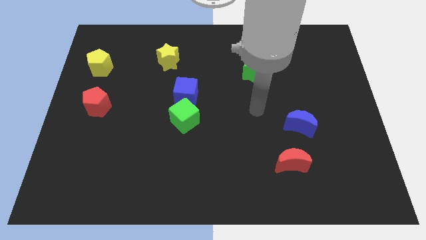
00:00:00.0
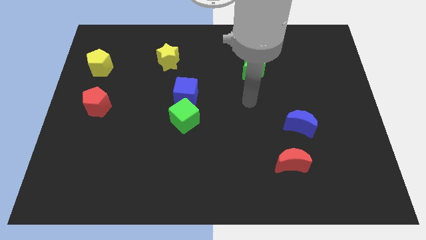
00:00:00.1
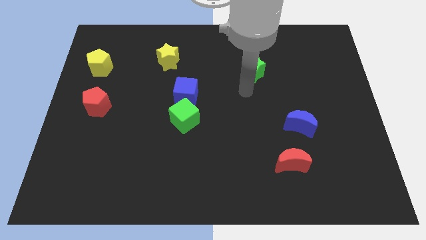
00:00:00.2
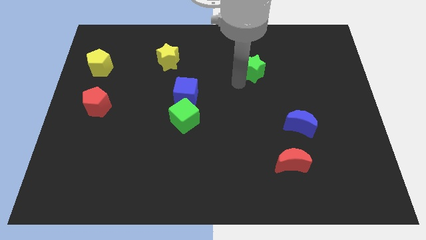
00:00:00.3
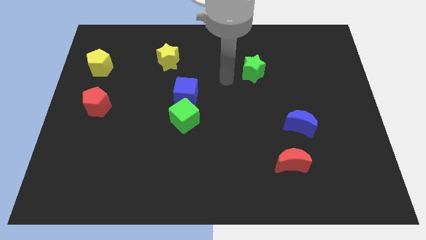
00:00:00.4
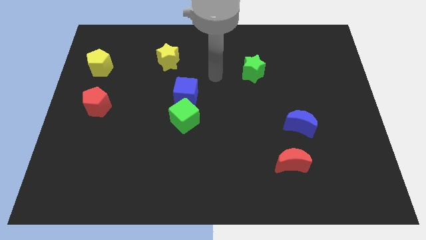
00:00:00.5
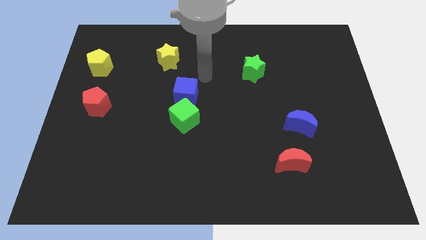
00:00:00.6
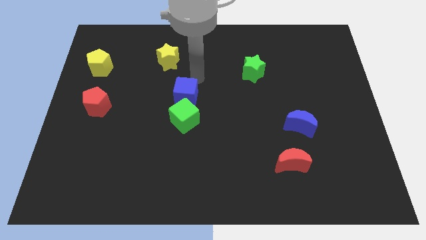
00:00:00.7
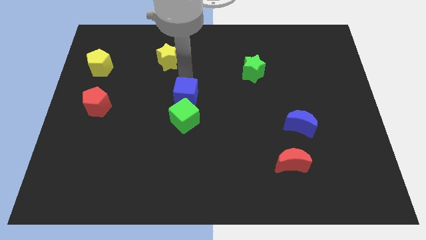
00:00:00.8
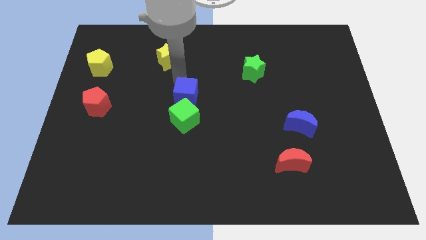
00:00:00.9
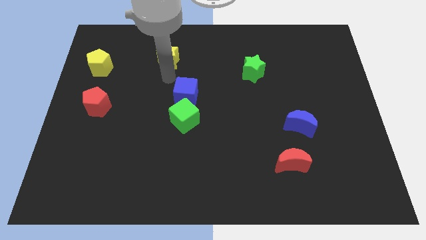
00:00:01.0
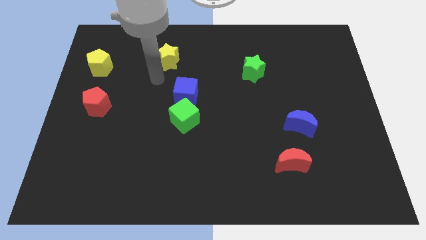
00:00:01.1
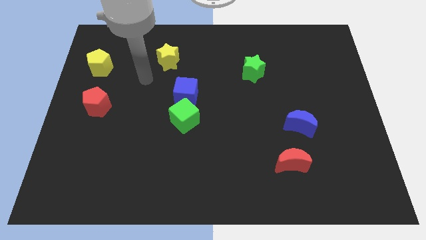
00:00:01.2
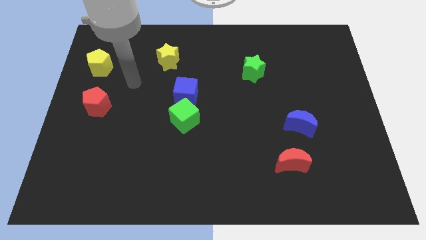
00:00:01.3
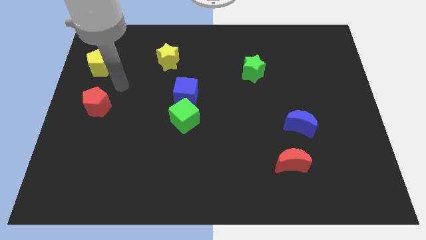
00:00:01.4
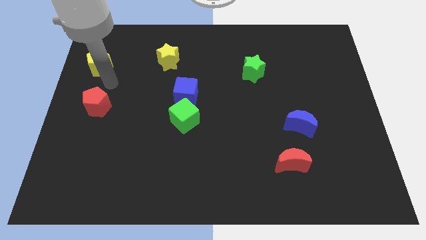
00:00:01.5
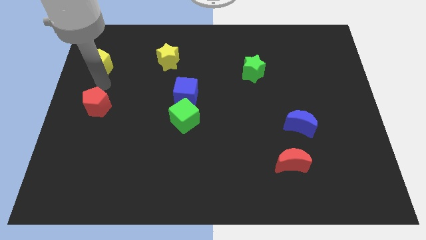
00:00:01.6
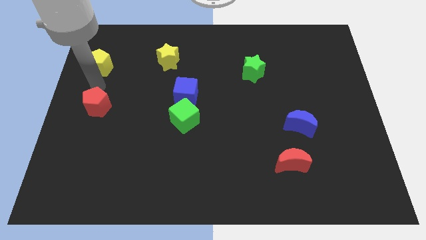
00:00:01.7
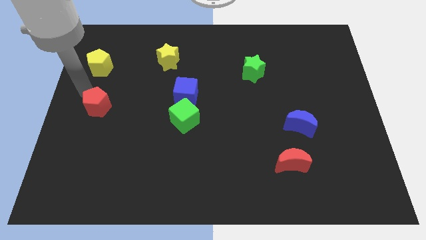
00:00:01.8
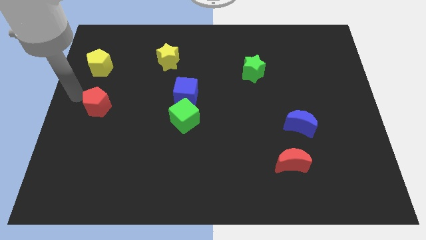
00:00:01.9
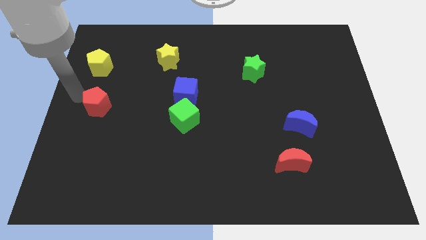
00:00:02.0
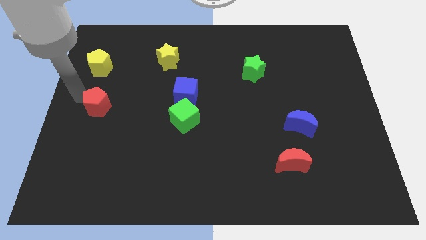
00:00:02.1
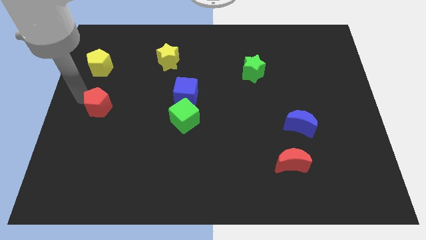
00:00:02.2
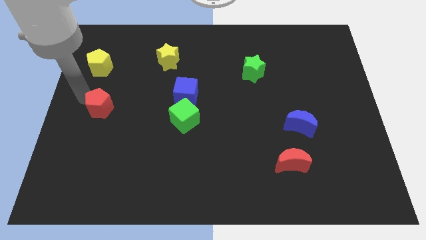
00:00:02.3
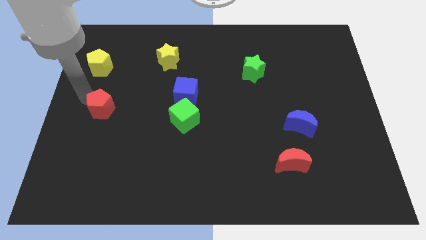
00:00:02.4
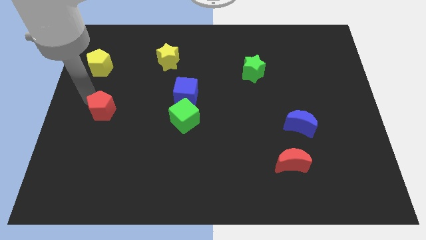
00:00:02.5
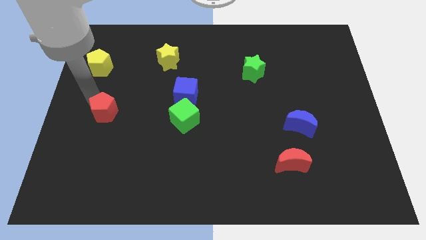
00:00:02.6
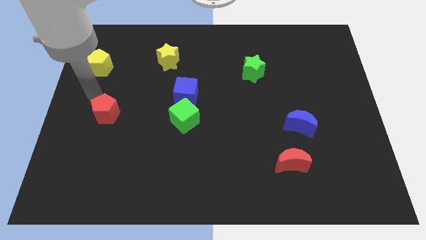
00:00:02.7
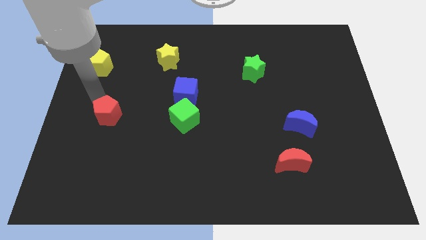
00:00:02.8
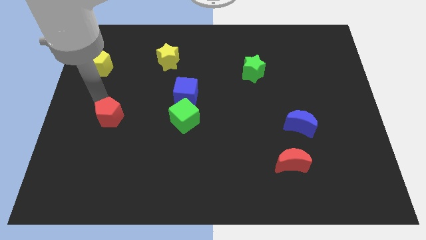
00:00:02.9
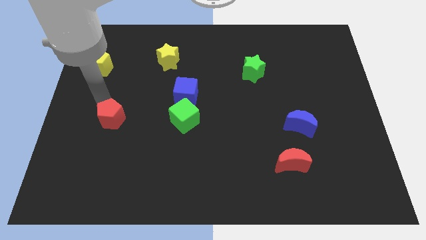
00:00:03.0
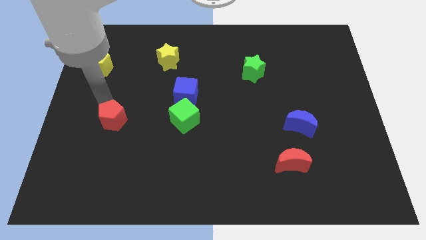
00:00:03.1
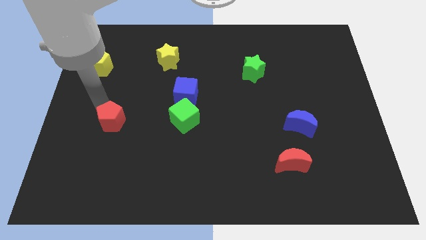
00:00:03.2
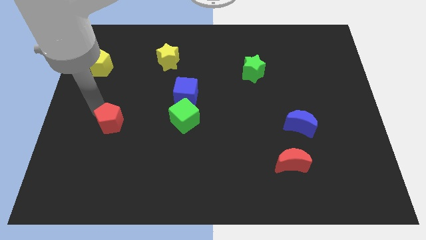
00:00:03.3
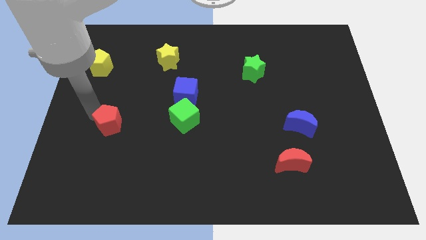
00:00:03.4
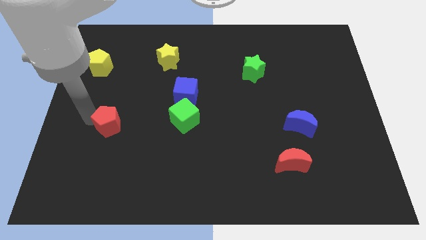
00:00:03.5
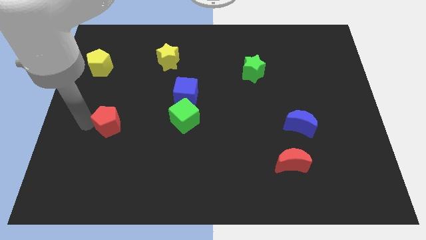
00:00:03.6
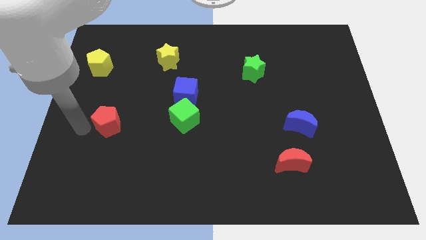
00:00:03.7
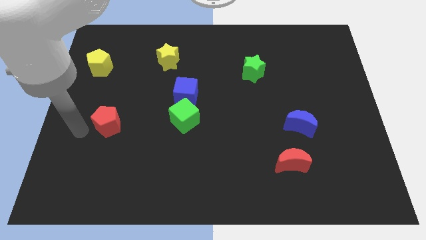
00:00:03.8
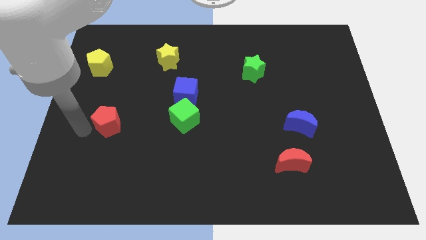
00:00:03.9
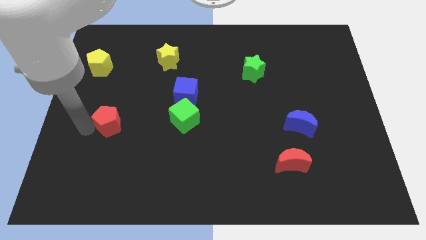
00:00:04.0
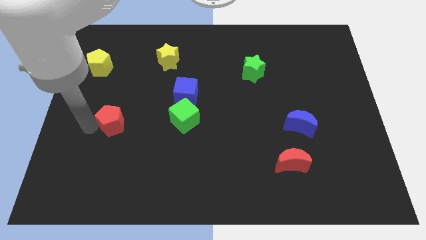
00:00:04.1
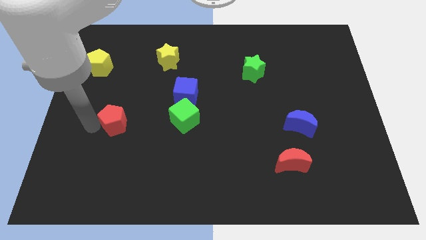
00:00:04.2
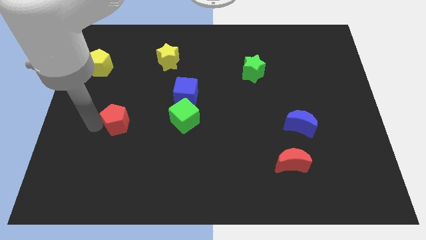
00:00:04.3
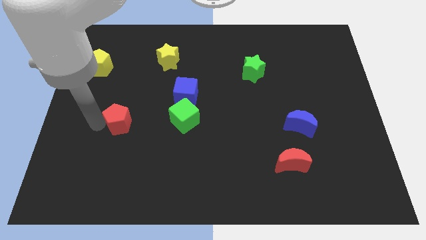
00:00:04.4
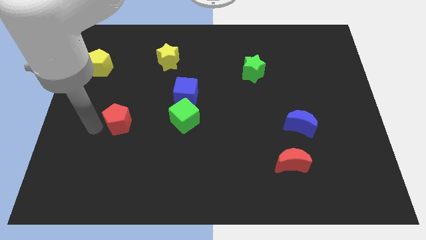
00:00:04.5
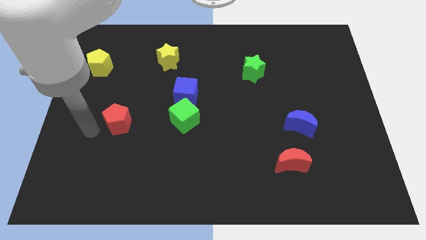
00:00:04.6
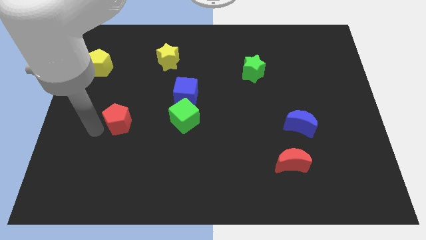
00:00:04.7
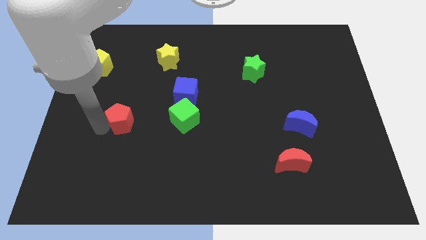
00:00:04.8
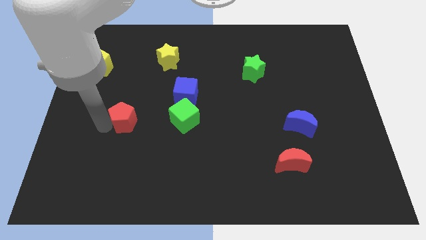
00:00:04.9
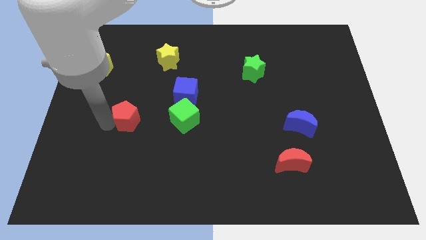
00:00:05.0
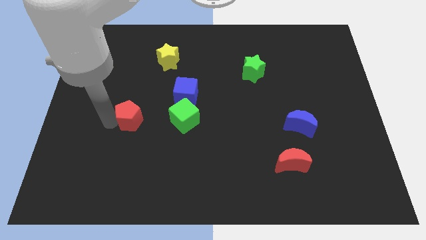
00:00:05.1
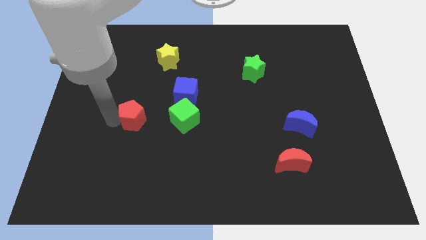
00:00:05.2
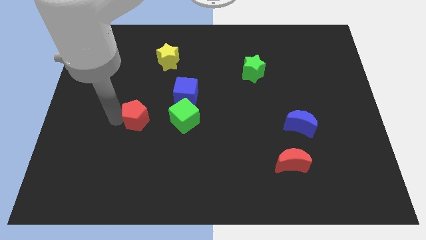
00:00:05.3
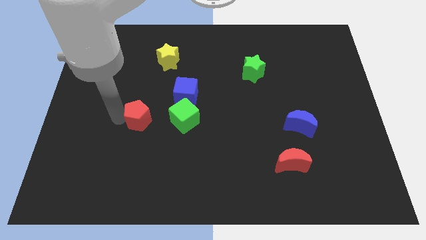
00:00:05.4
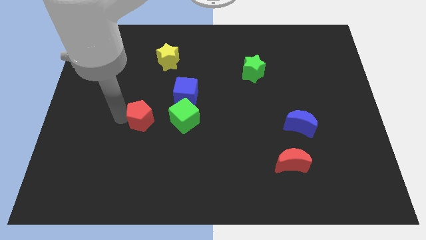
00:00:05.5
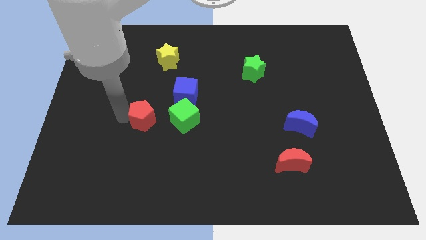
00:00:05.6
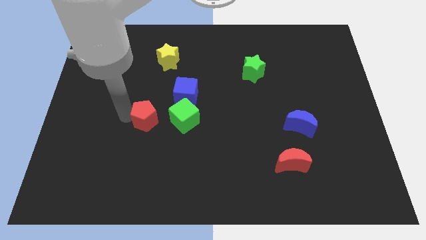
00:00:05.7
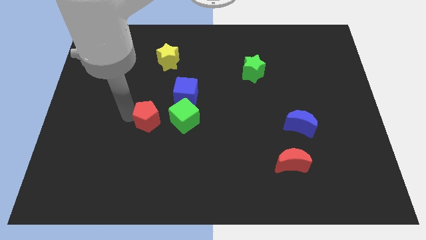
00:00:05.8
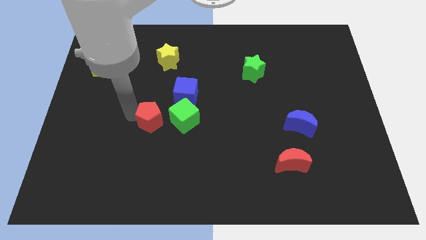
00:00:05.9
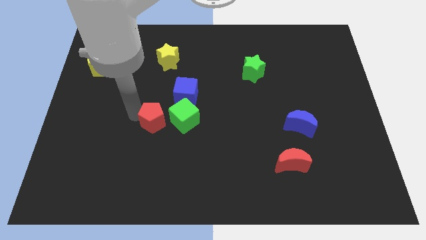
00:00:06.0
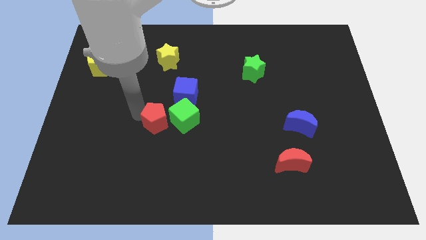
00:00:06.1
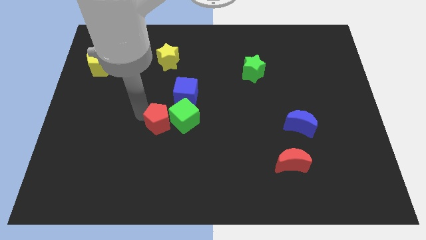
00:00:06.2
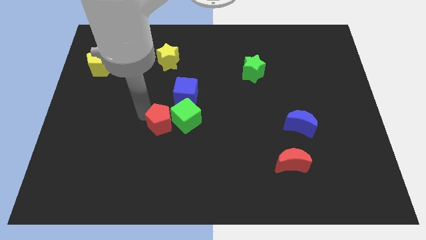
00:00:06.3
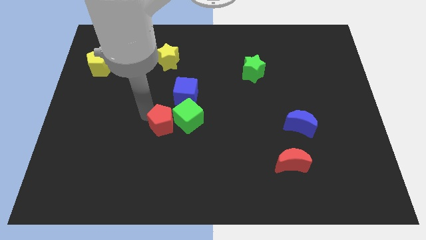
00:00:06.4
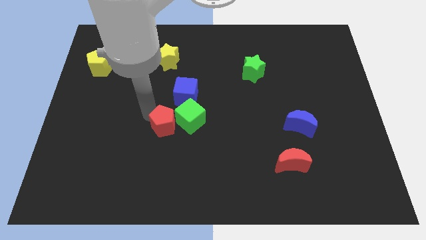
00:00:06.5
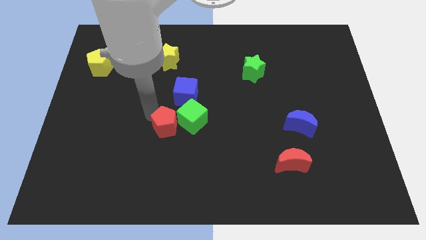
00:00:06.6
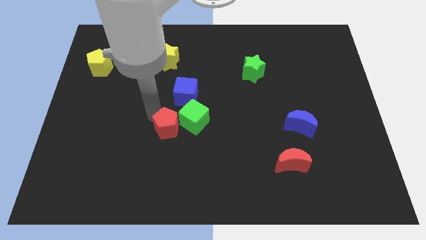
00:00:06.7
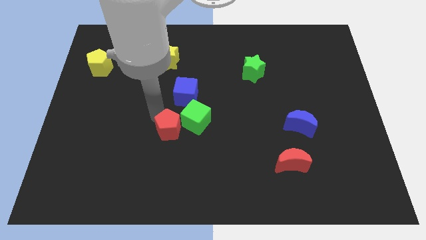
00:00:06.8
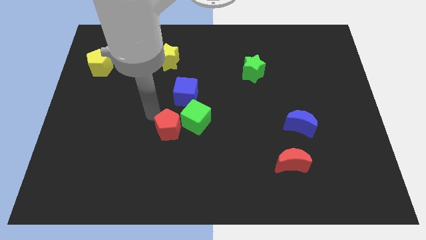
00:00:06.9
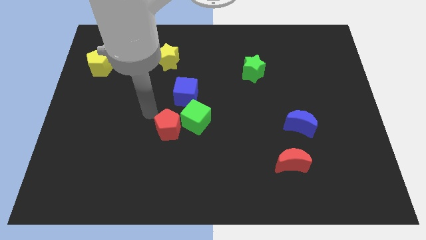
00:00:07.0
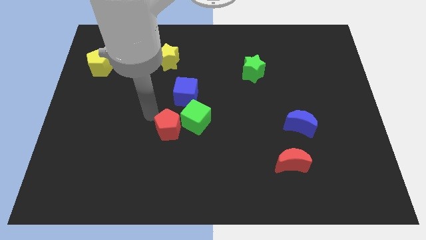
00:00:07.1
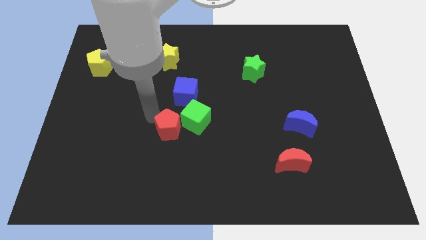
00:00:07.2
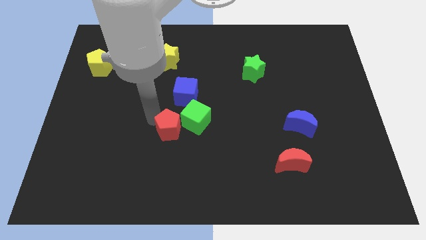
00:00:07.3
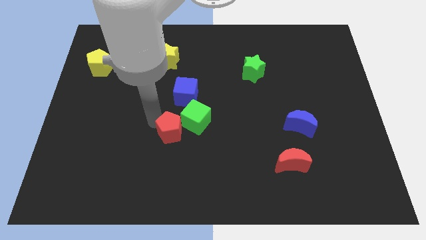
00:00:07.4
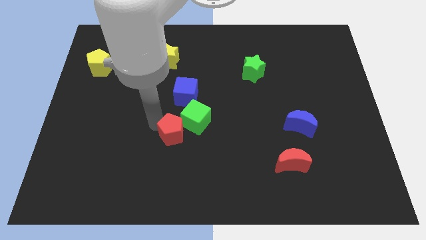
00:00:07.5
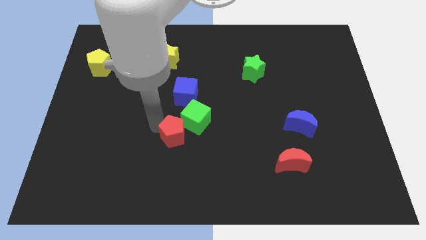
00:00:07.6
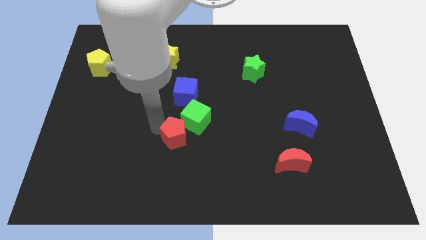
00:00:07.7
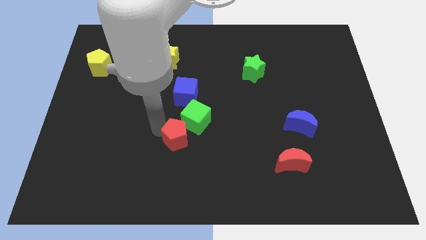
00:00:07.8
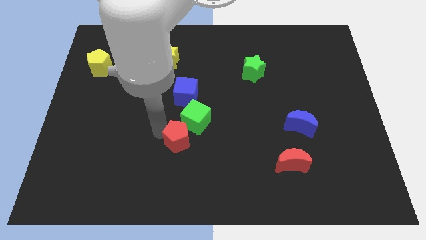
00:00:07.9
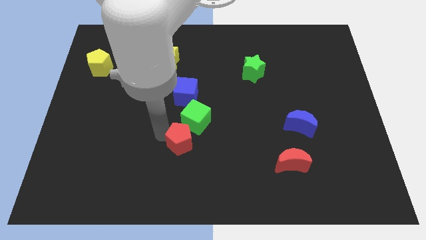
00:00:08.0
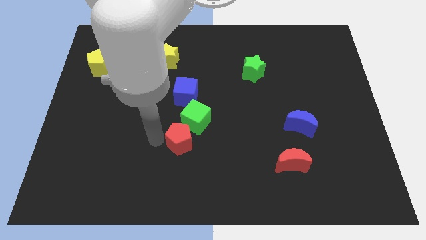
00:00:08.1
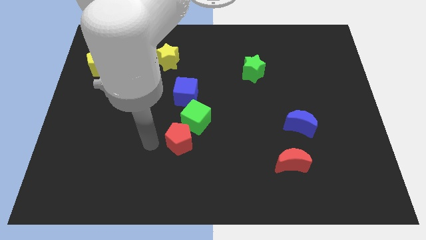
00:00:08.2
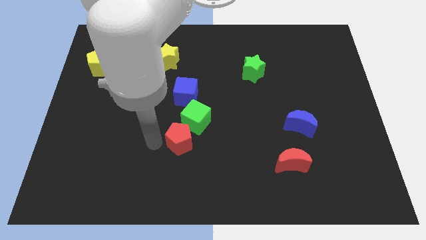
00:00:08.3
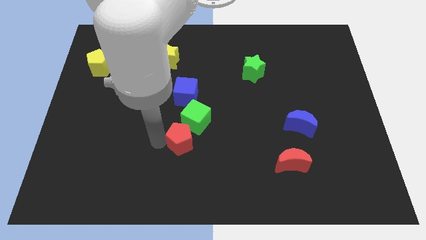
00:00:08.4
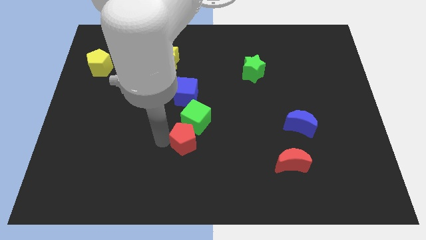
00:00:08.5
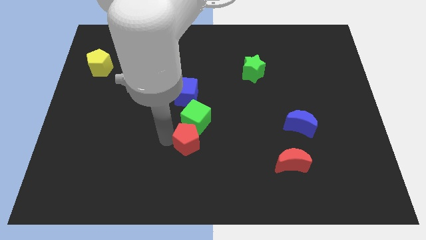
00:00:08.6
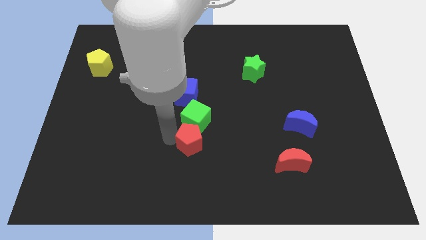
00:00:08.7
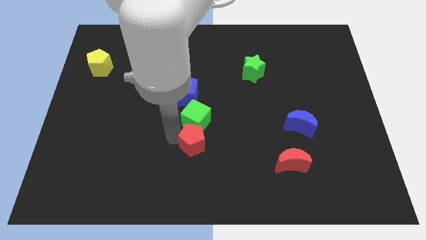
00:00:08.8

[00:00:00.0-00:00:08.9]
slide the red pentagon to the bottom right side of the green cube
